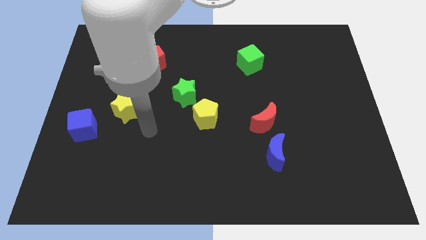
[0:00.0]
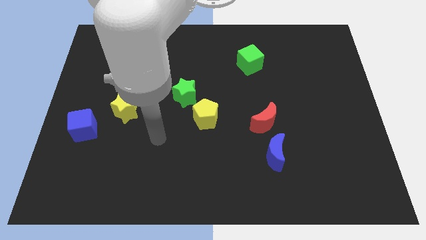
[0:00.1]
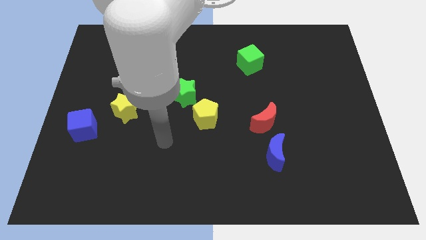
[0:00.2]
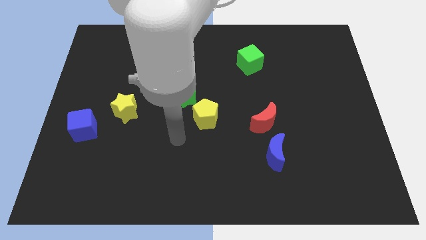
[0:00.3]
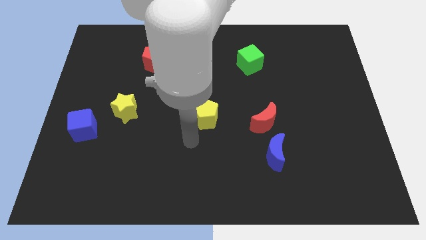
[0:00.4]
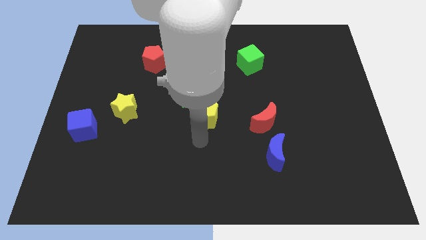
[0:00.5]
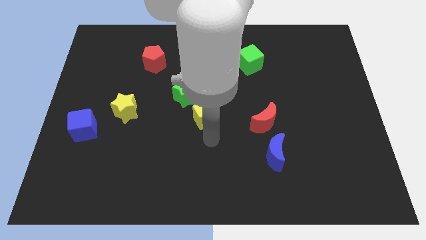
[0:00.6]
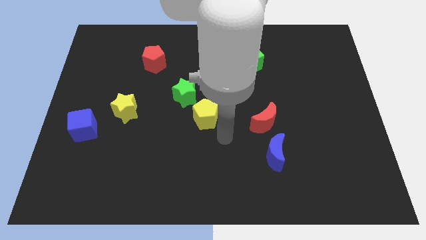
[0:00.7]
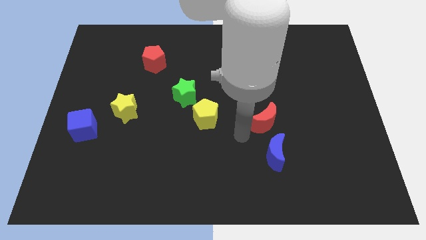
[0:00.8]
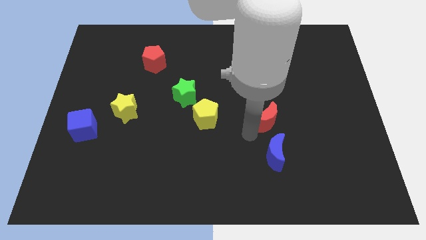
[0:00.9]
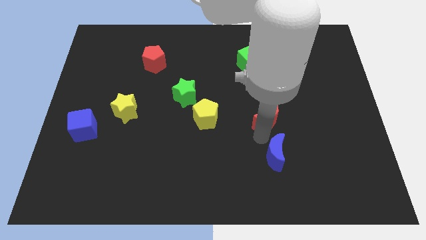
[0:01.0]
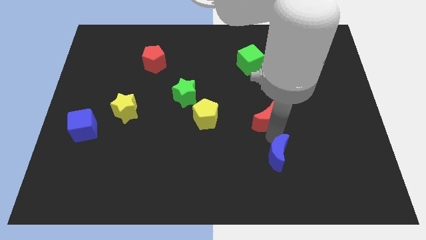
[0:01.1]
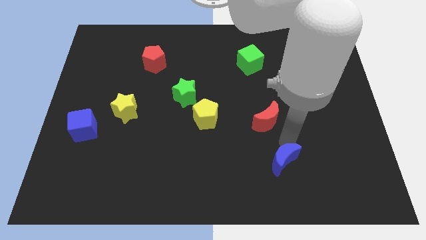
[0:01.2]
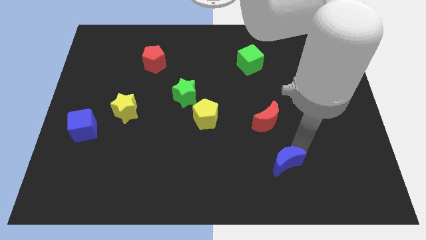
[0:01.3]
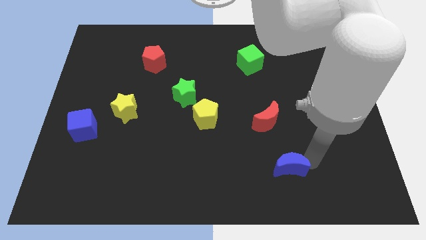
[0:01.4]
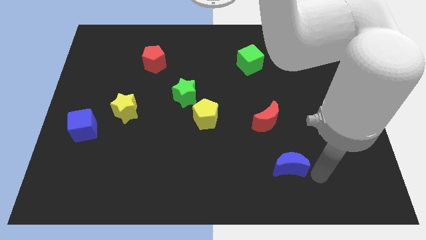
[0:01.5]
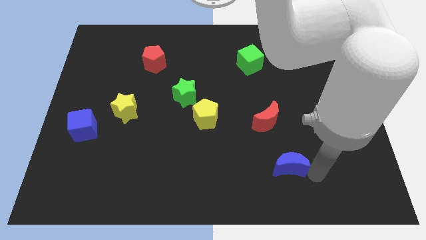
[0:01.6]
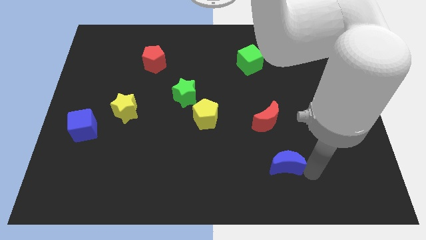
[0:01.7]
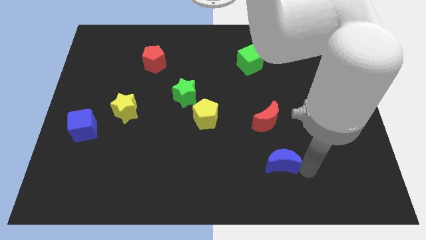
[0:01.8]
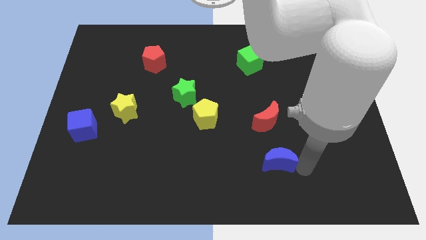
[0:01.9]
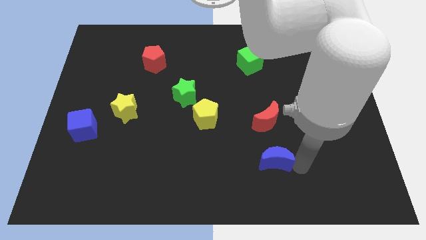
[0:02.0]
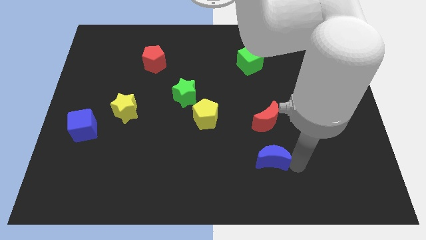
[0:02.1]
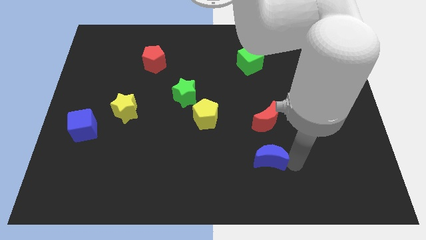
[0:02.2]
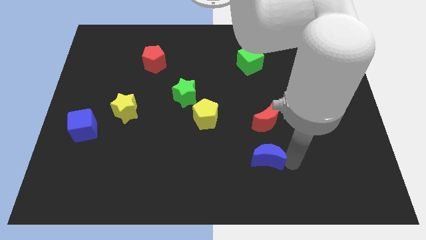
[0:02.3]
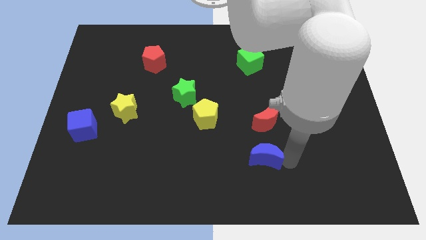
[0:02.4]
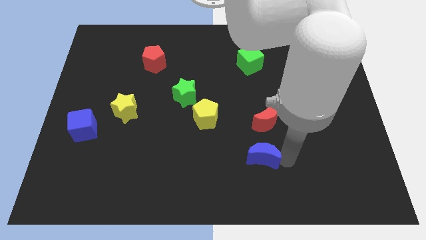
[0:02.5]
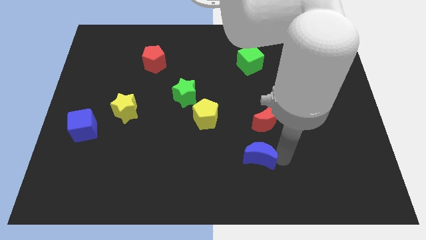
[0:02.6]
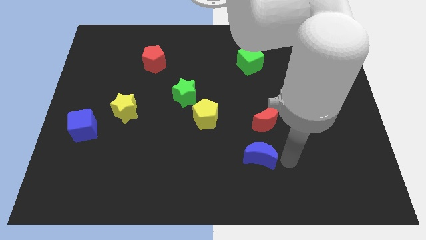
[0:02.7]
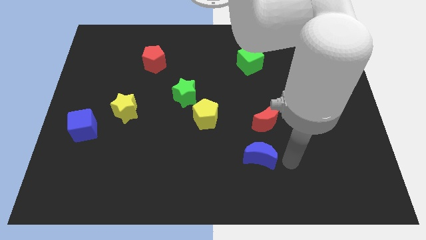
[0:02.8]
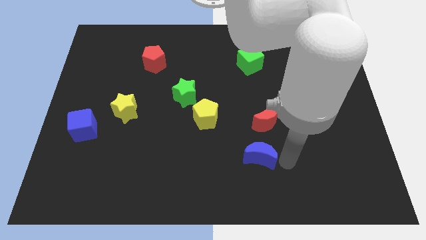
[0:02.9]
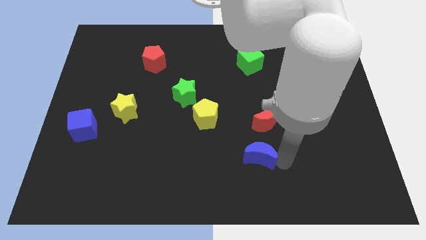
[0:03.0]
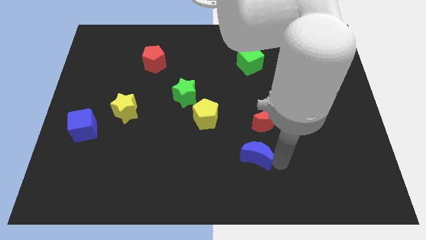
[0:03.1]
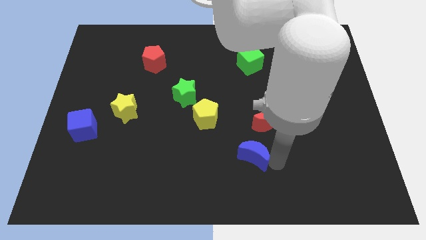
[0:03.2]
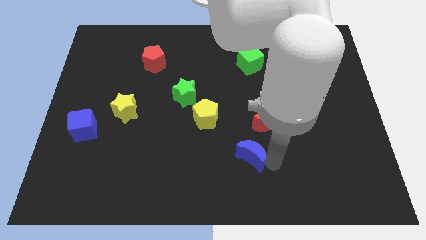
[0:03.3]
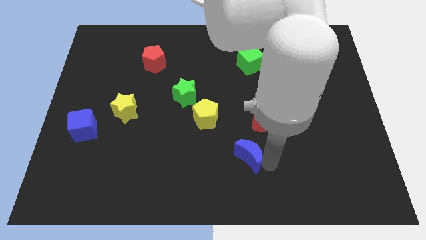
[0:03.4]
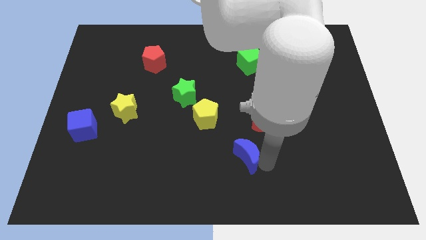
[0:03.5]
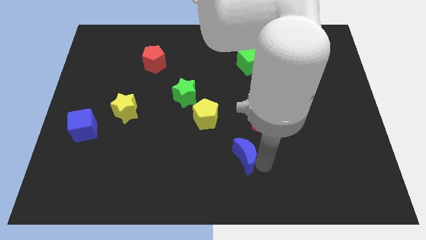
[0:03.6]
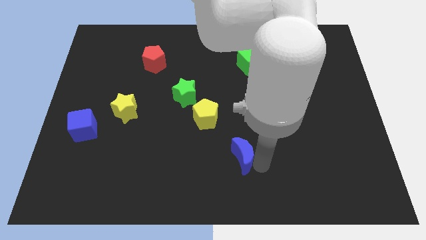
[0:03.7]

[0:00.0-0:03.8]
slightly move the blue moon to the left

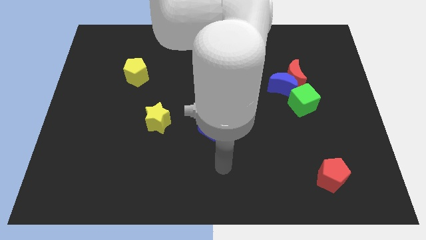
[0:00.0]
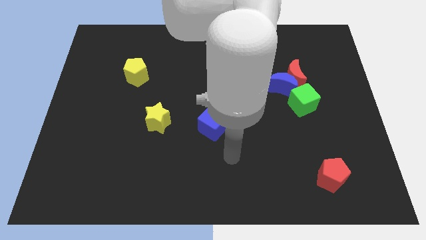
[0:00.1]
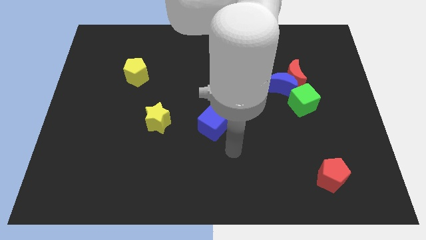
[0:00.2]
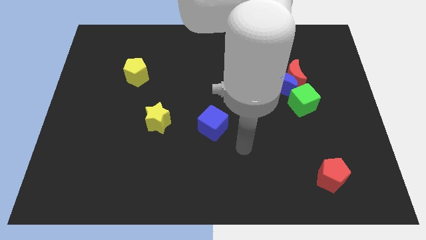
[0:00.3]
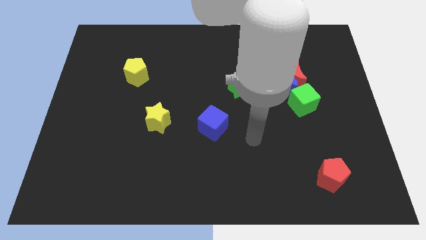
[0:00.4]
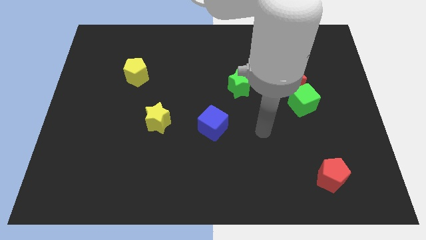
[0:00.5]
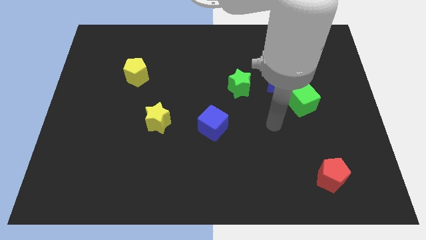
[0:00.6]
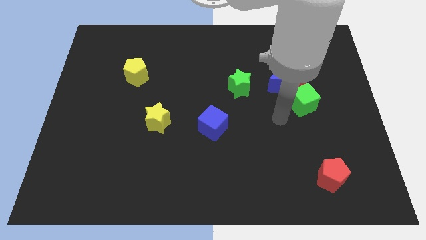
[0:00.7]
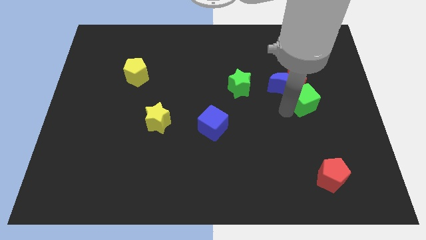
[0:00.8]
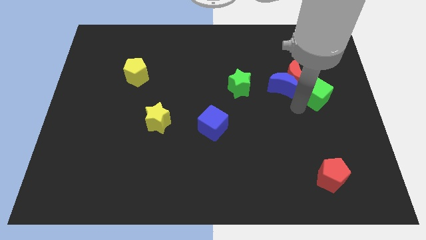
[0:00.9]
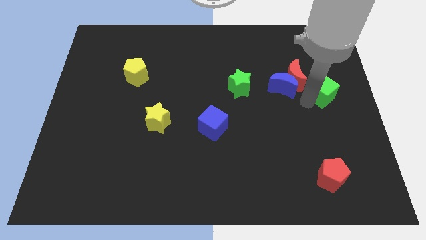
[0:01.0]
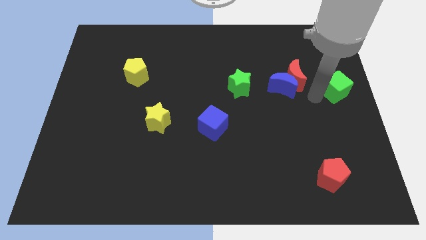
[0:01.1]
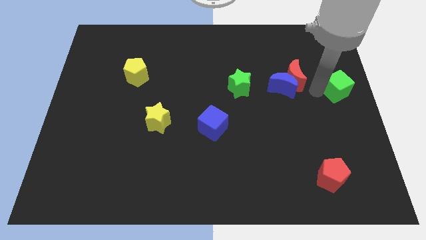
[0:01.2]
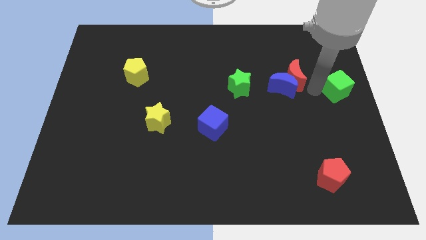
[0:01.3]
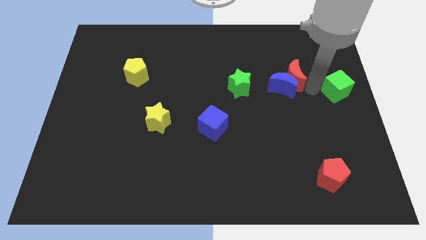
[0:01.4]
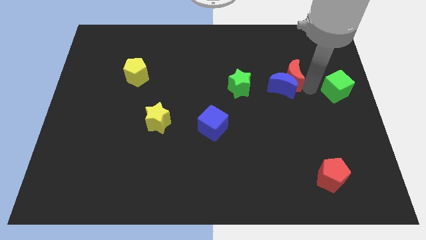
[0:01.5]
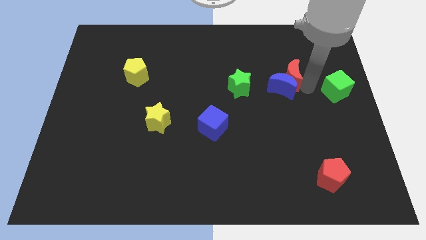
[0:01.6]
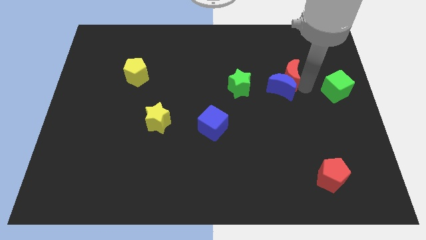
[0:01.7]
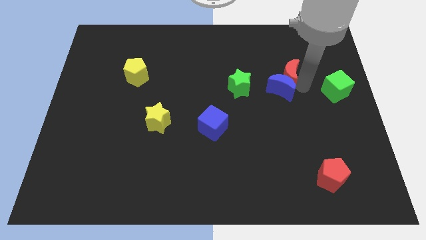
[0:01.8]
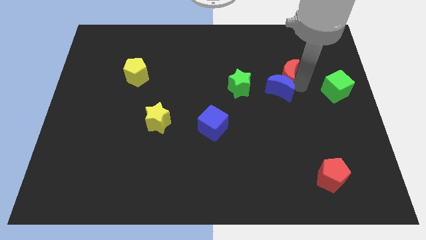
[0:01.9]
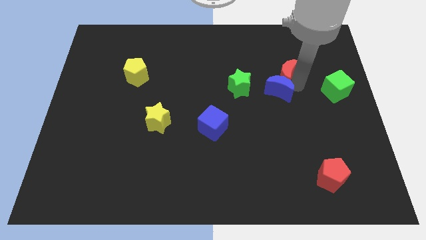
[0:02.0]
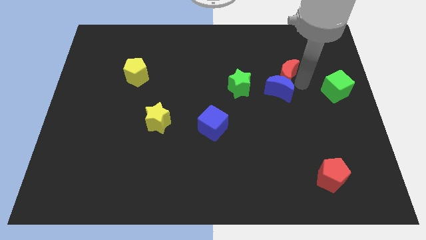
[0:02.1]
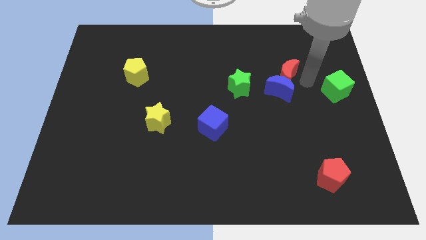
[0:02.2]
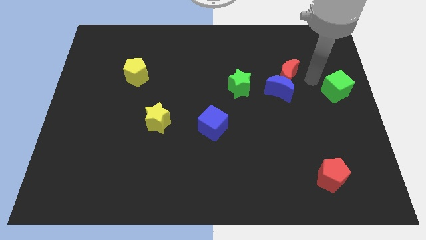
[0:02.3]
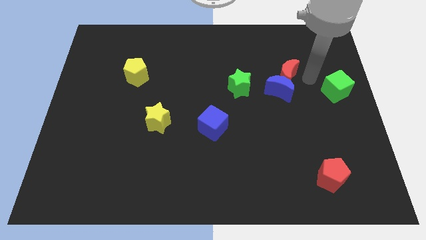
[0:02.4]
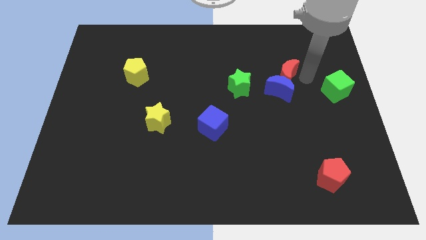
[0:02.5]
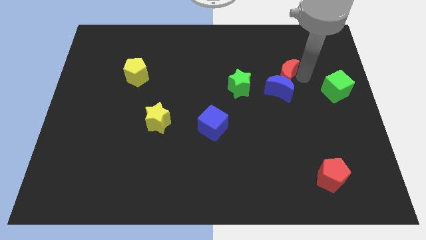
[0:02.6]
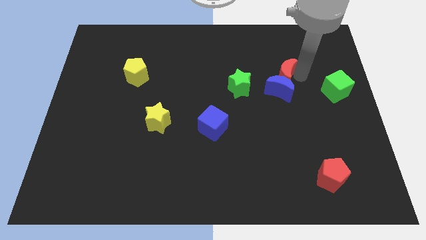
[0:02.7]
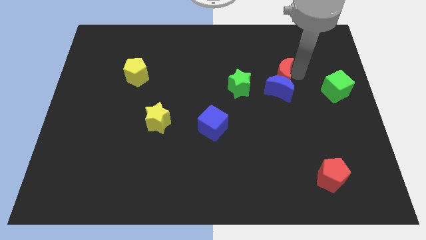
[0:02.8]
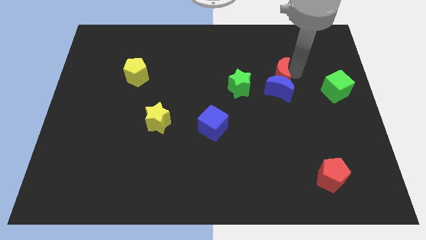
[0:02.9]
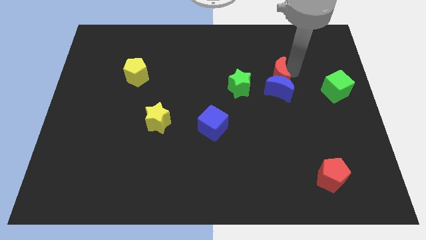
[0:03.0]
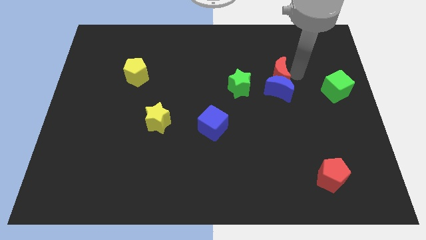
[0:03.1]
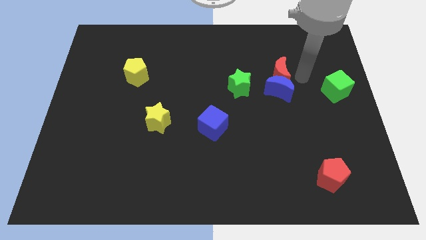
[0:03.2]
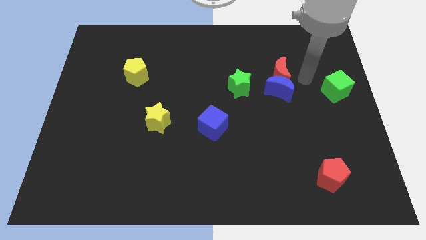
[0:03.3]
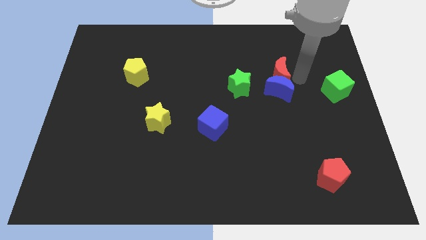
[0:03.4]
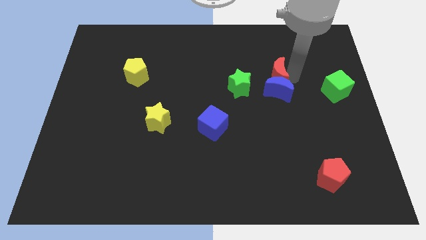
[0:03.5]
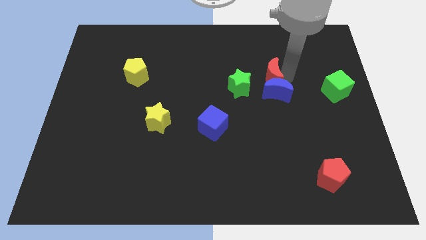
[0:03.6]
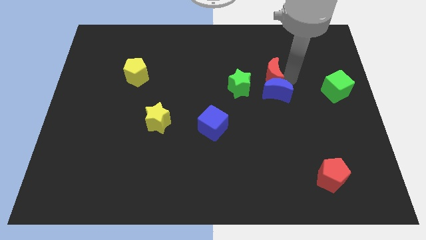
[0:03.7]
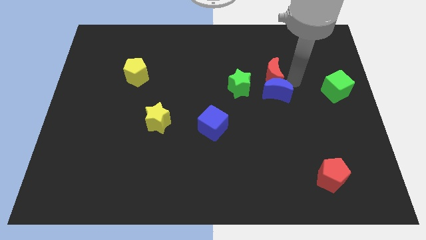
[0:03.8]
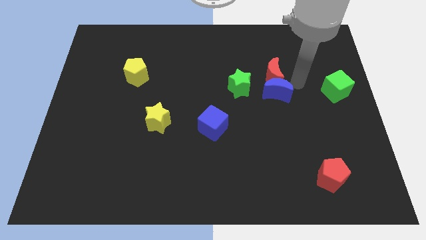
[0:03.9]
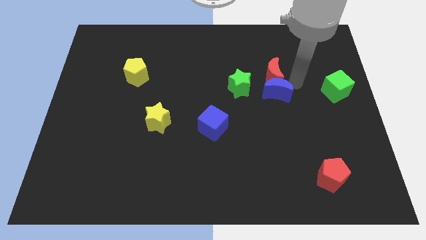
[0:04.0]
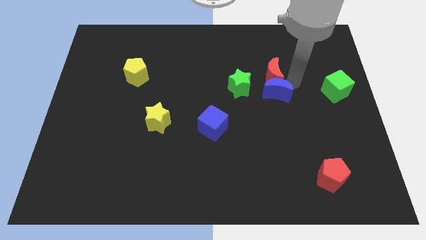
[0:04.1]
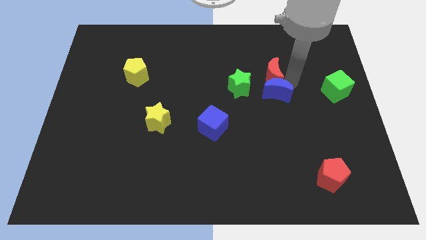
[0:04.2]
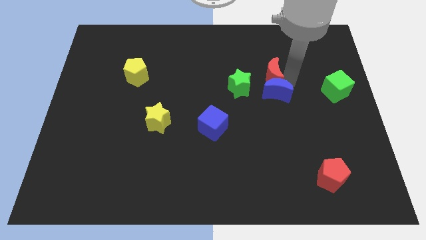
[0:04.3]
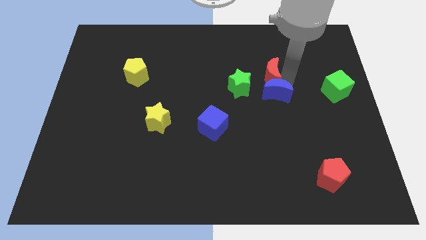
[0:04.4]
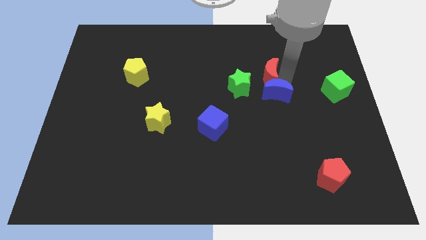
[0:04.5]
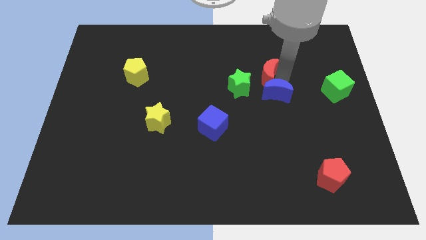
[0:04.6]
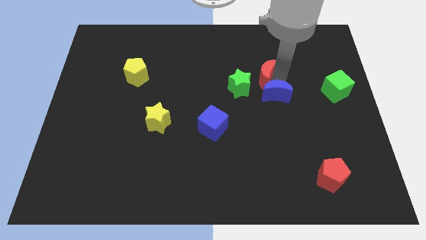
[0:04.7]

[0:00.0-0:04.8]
push the red moon a bit to the left

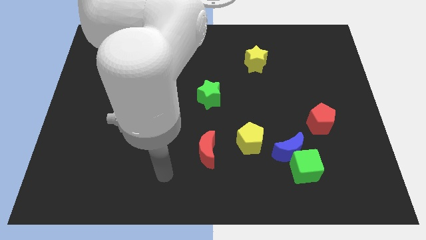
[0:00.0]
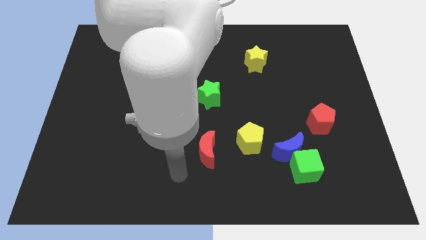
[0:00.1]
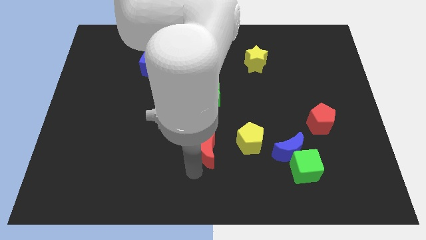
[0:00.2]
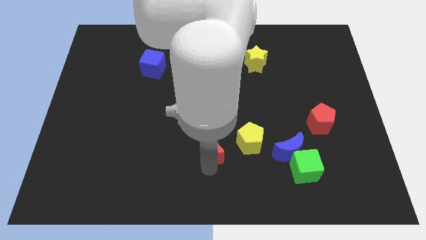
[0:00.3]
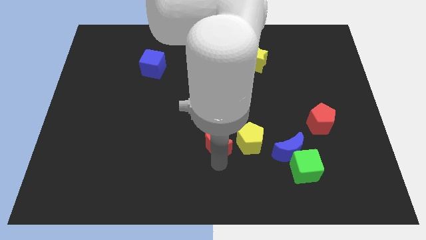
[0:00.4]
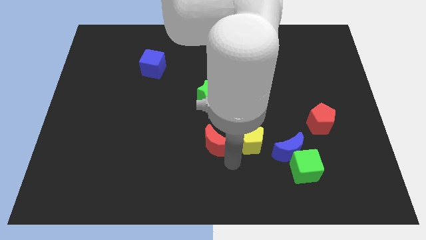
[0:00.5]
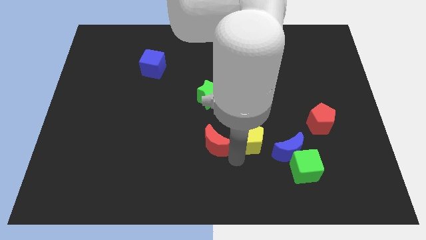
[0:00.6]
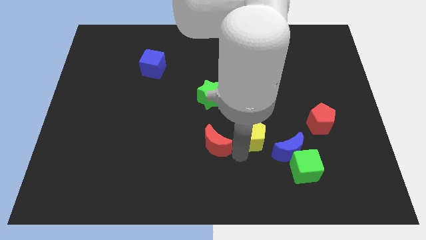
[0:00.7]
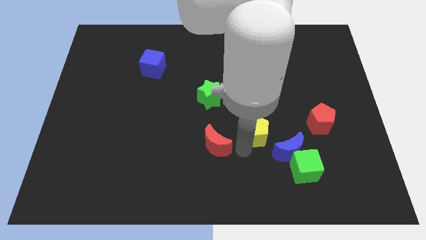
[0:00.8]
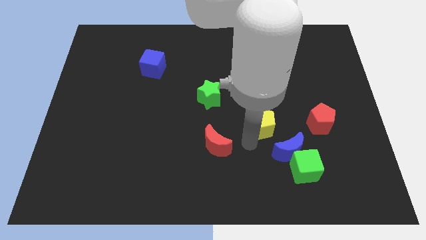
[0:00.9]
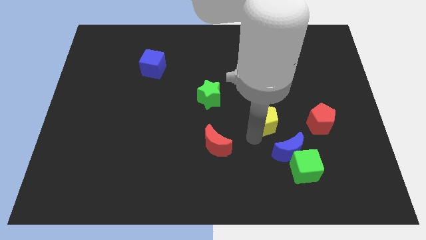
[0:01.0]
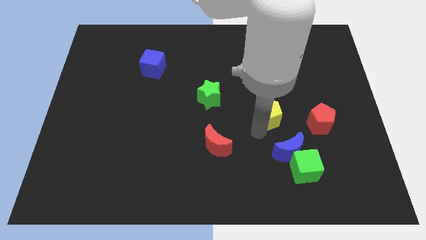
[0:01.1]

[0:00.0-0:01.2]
slightly push the yellow pentagon upwards and to the right diagonally
